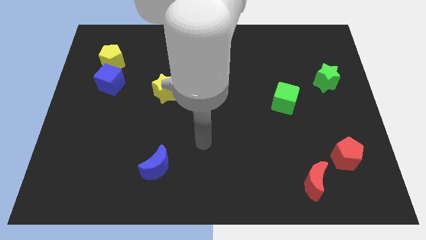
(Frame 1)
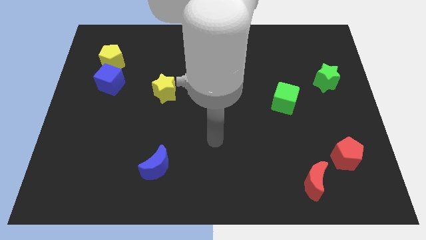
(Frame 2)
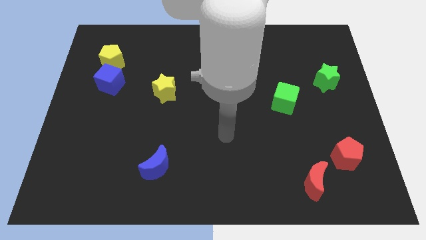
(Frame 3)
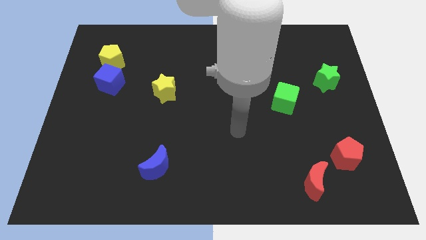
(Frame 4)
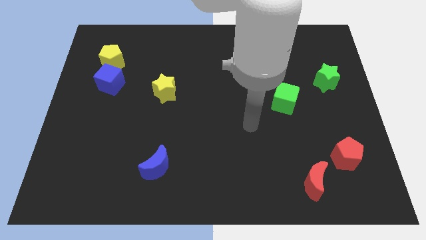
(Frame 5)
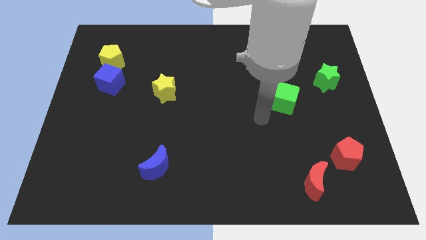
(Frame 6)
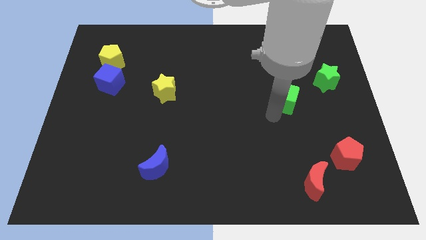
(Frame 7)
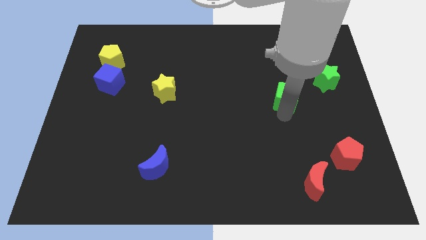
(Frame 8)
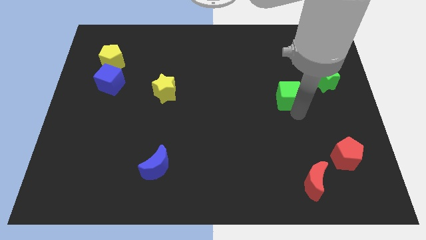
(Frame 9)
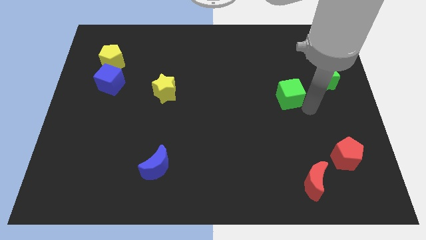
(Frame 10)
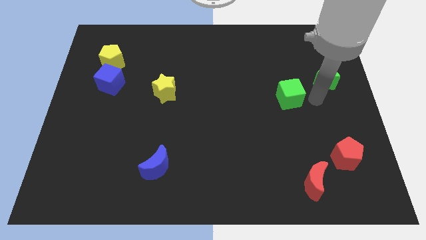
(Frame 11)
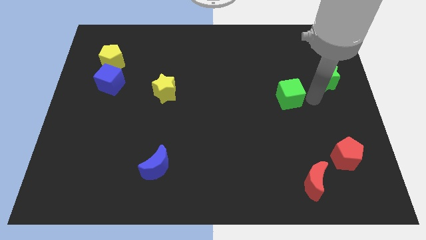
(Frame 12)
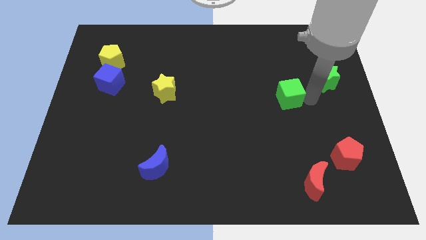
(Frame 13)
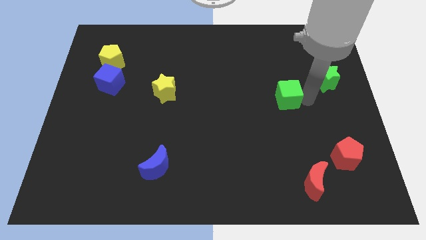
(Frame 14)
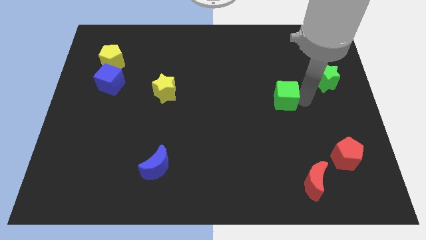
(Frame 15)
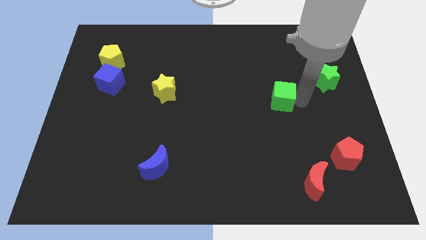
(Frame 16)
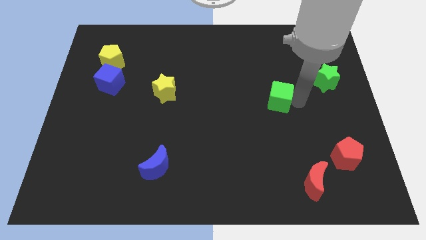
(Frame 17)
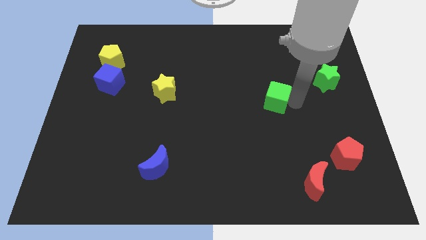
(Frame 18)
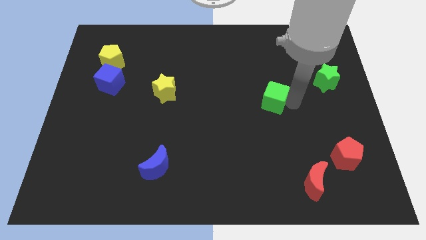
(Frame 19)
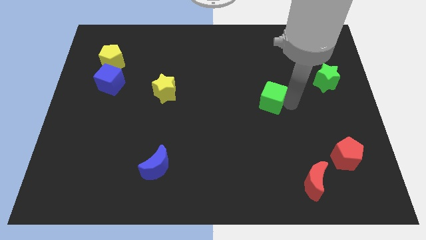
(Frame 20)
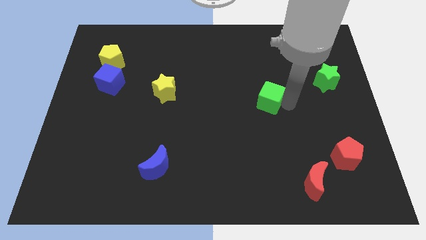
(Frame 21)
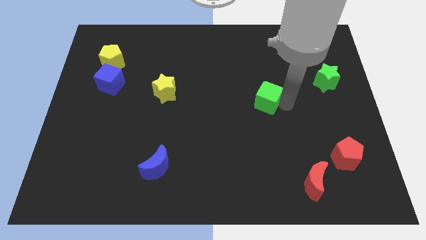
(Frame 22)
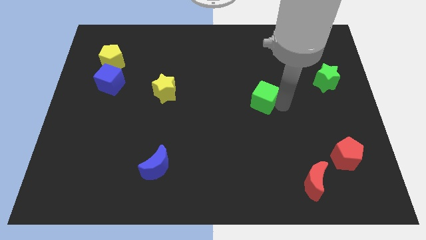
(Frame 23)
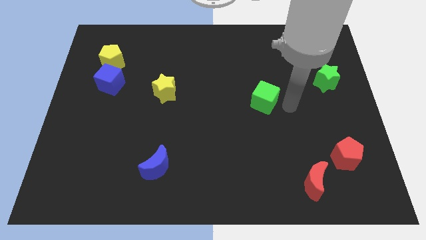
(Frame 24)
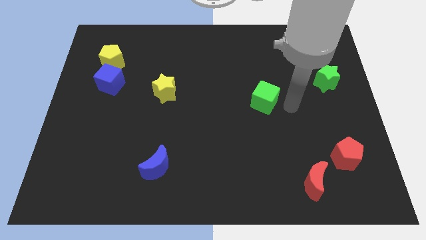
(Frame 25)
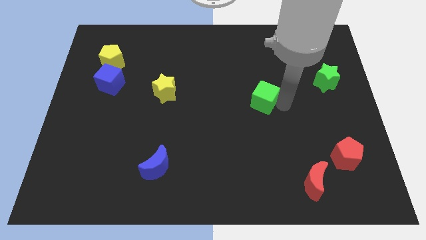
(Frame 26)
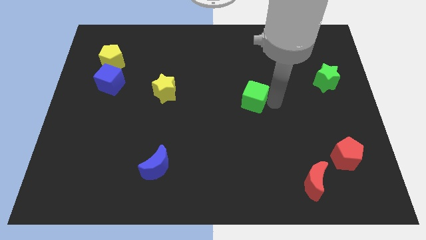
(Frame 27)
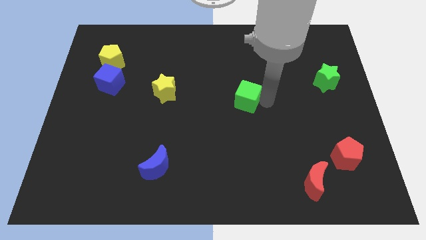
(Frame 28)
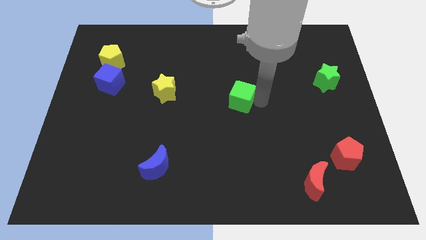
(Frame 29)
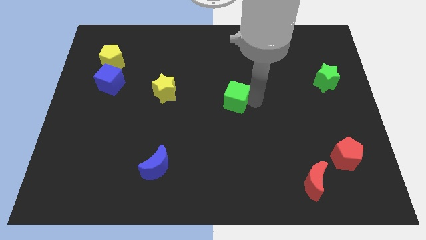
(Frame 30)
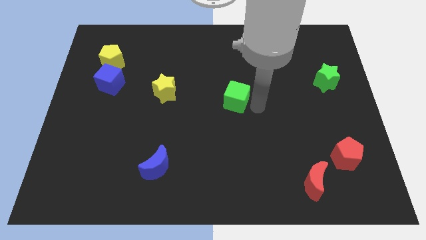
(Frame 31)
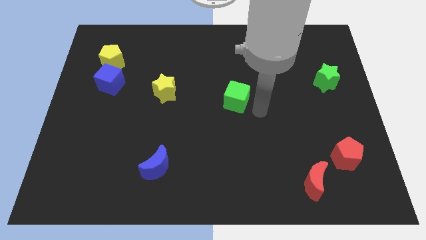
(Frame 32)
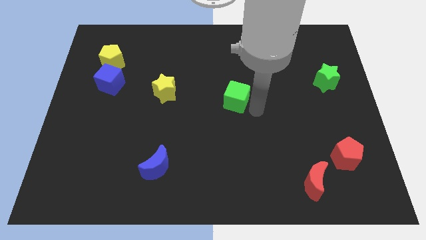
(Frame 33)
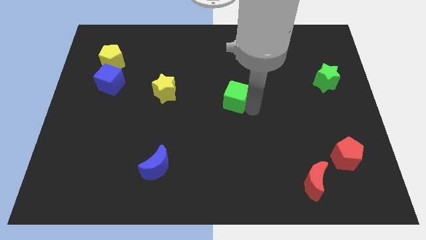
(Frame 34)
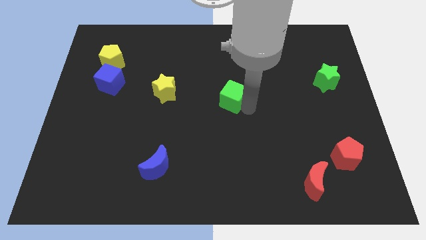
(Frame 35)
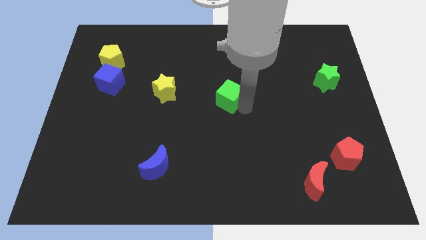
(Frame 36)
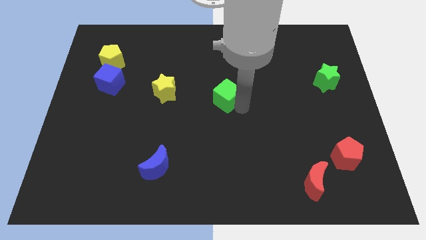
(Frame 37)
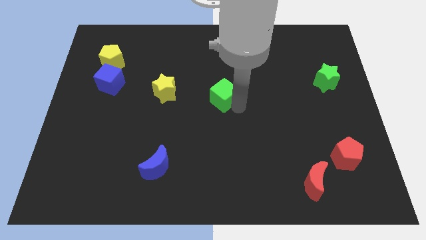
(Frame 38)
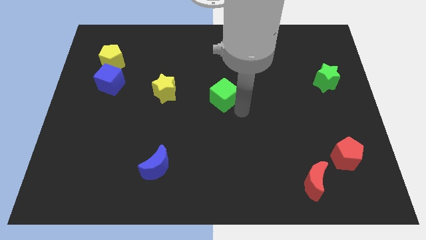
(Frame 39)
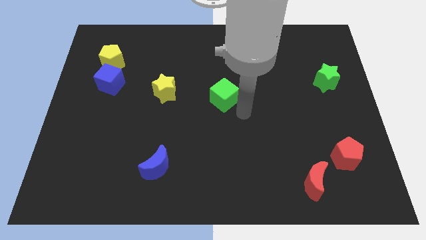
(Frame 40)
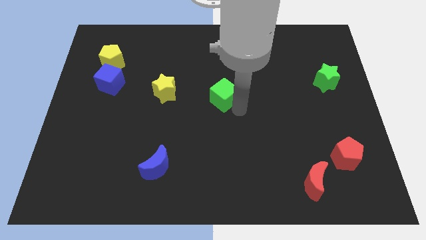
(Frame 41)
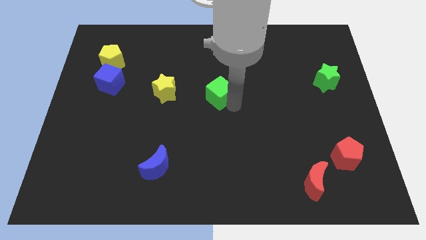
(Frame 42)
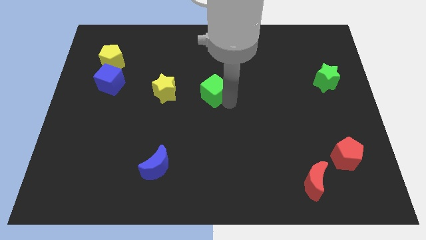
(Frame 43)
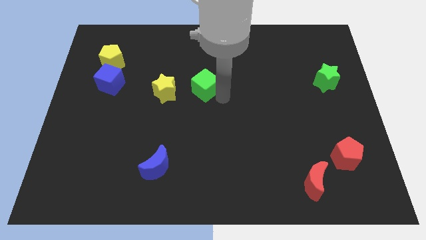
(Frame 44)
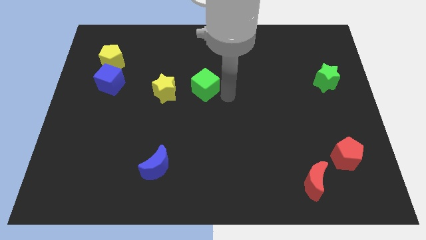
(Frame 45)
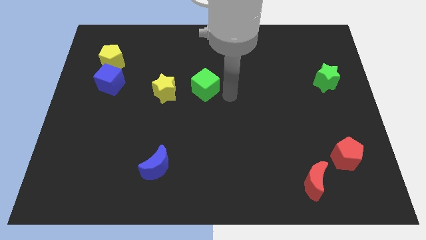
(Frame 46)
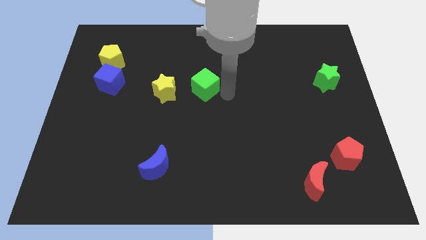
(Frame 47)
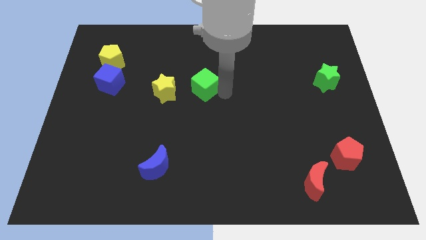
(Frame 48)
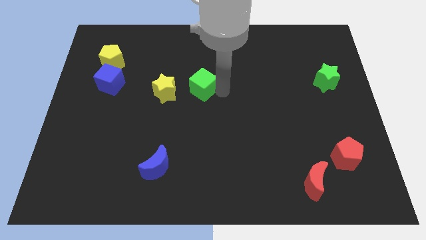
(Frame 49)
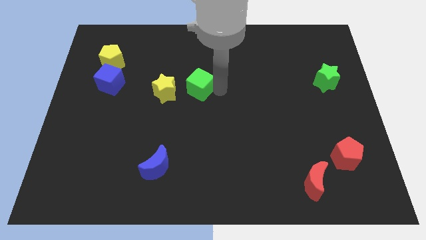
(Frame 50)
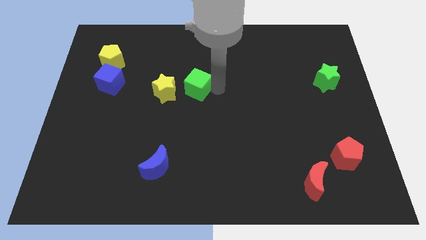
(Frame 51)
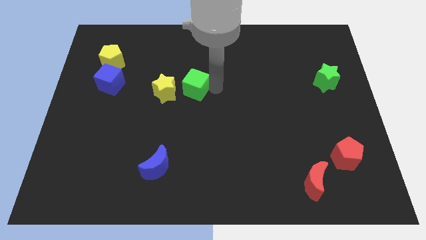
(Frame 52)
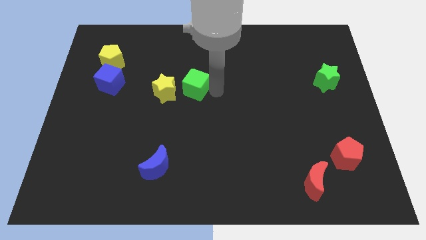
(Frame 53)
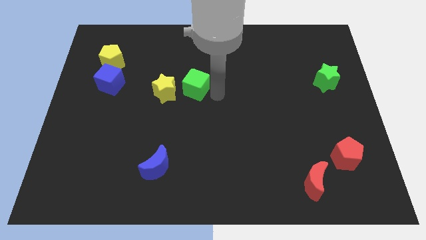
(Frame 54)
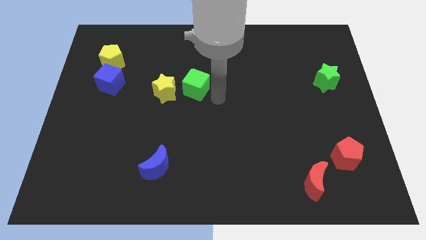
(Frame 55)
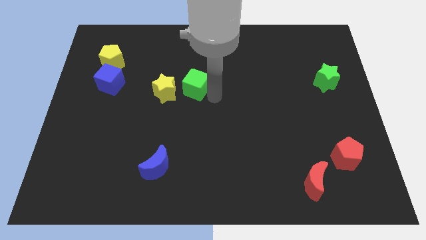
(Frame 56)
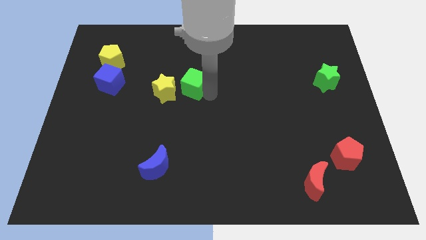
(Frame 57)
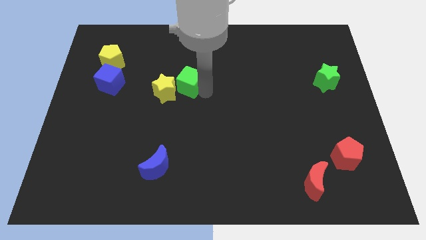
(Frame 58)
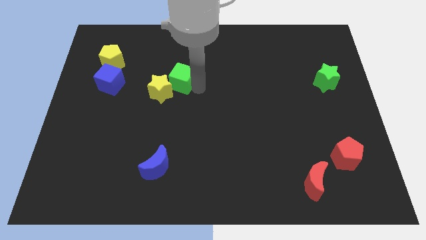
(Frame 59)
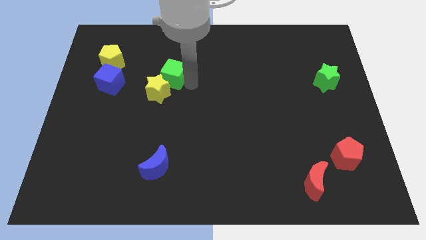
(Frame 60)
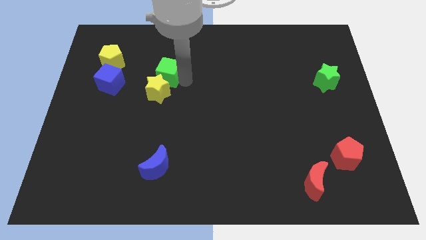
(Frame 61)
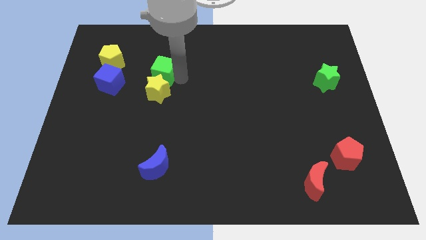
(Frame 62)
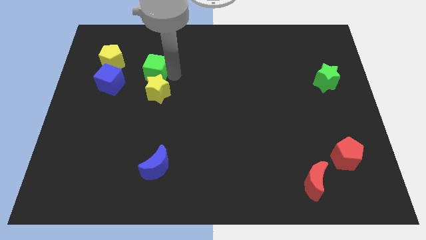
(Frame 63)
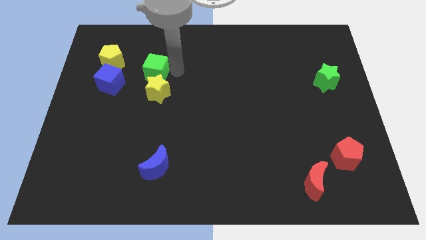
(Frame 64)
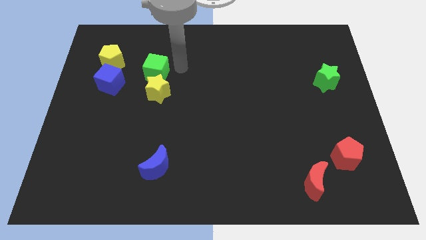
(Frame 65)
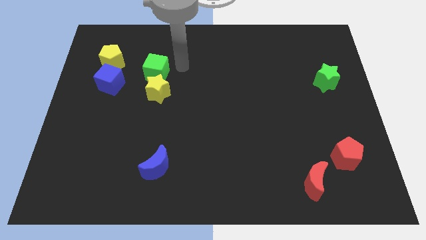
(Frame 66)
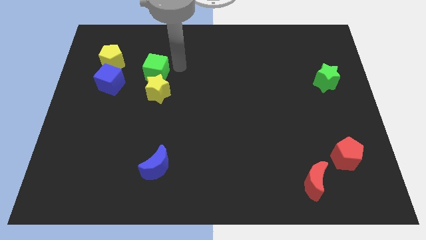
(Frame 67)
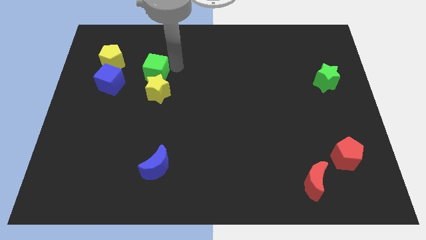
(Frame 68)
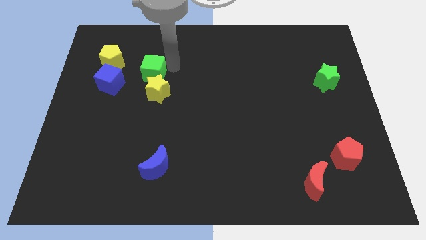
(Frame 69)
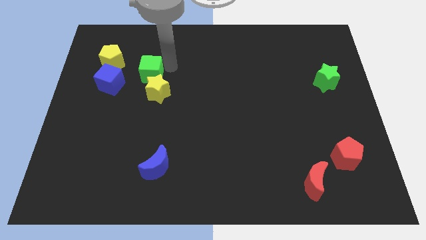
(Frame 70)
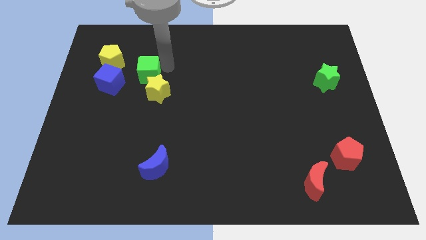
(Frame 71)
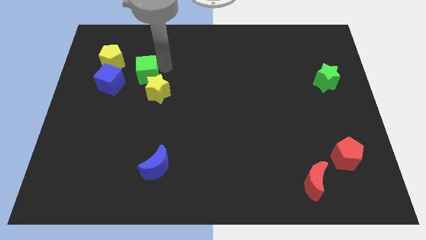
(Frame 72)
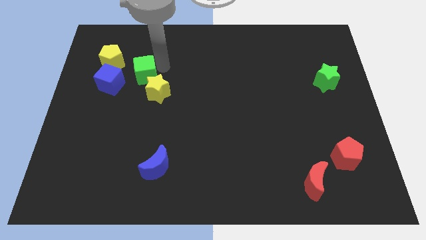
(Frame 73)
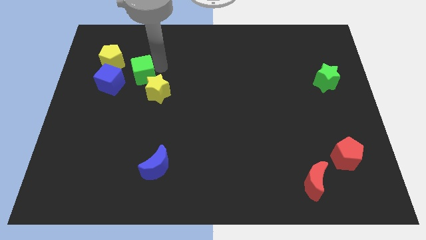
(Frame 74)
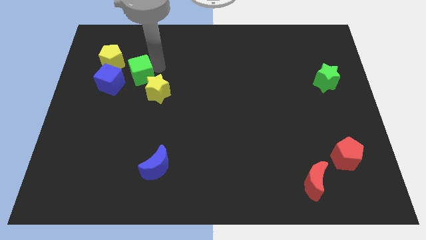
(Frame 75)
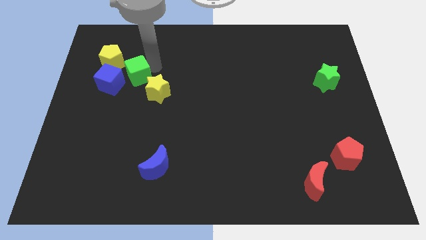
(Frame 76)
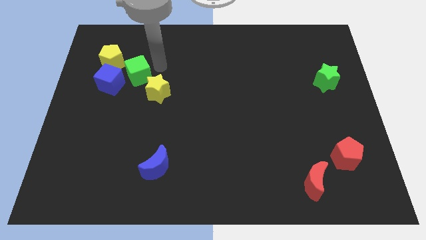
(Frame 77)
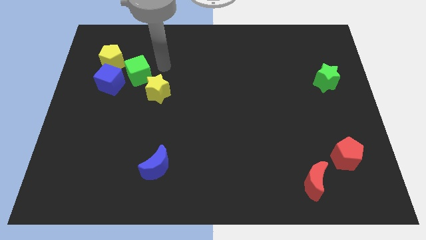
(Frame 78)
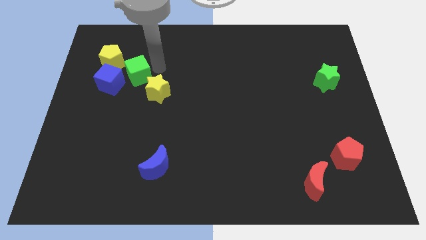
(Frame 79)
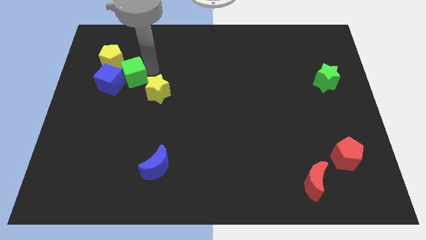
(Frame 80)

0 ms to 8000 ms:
slide the green cube close to the blue cube
